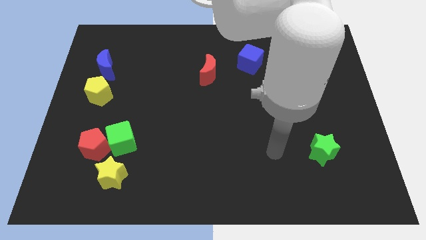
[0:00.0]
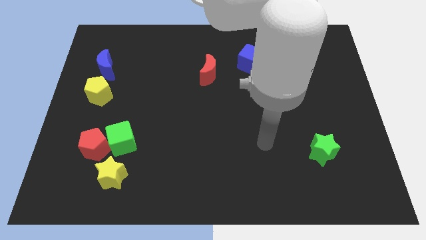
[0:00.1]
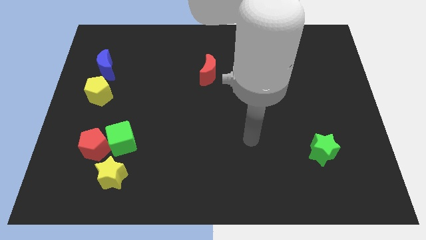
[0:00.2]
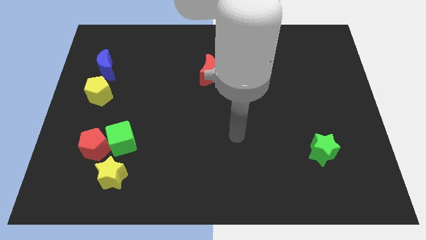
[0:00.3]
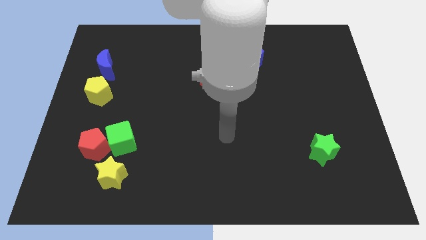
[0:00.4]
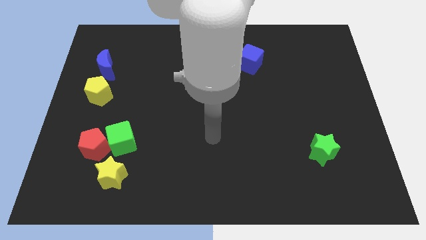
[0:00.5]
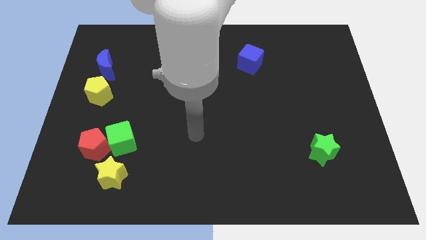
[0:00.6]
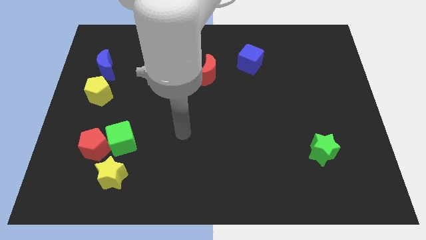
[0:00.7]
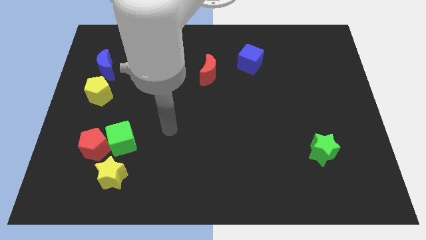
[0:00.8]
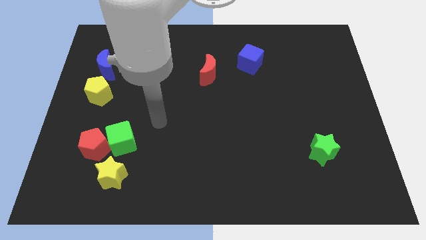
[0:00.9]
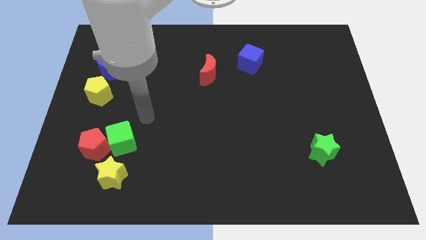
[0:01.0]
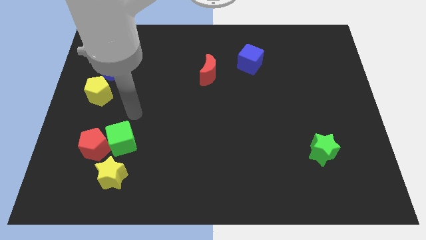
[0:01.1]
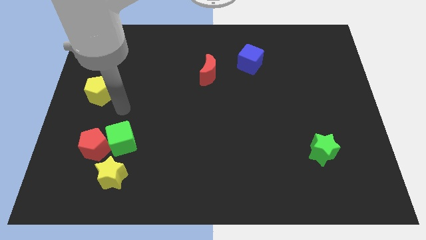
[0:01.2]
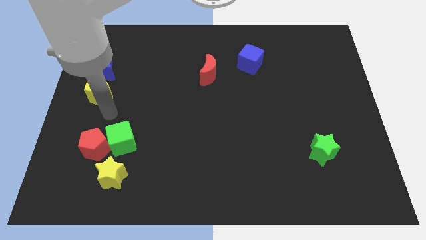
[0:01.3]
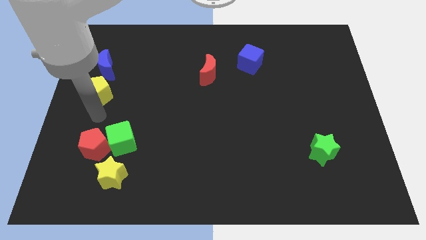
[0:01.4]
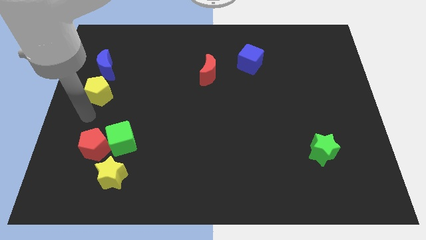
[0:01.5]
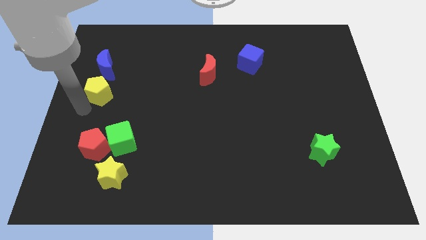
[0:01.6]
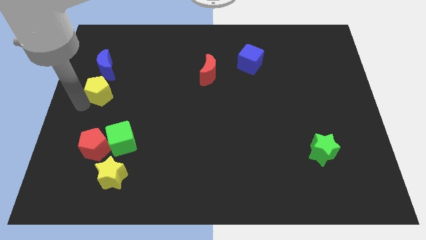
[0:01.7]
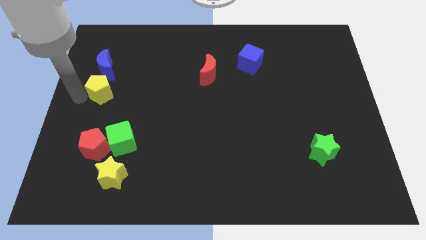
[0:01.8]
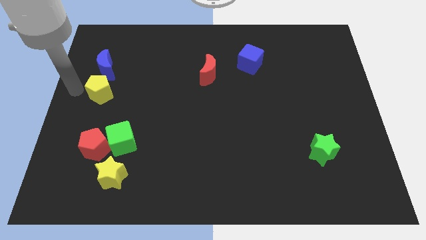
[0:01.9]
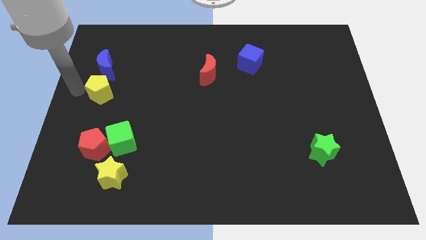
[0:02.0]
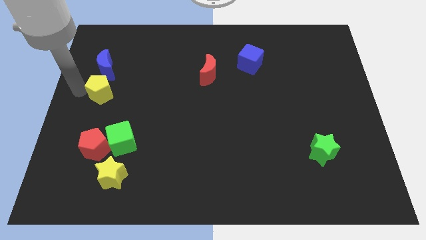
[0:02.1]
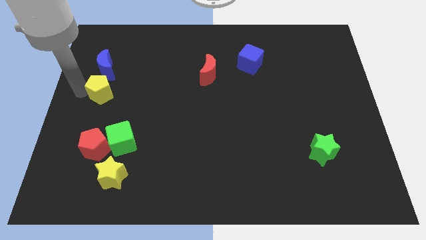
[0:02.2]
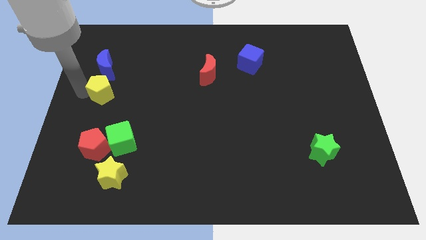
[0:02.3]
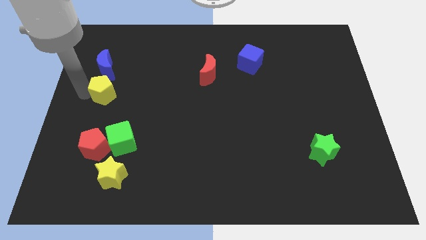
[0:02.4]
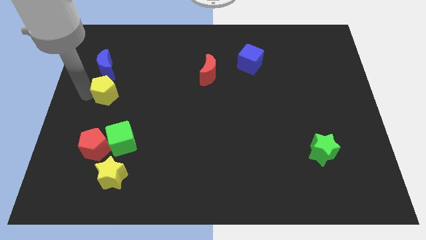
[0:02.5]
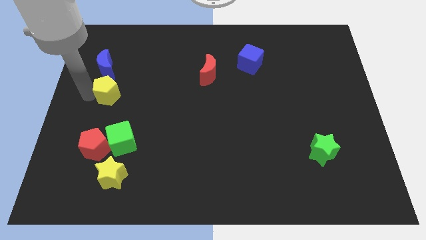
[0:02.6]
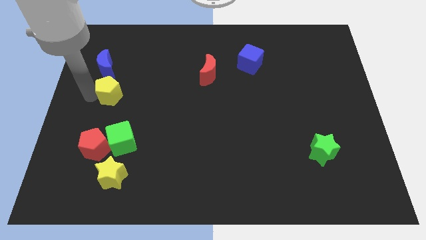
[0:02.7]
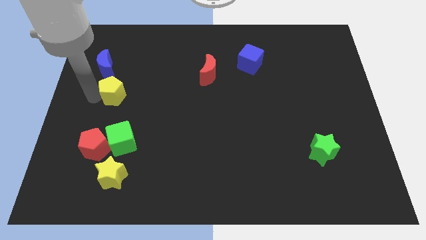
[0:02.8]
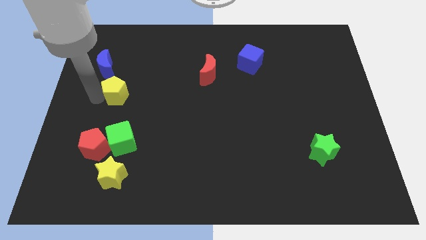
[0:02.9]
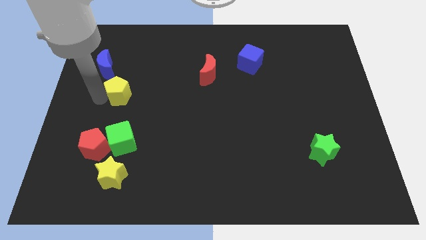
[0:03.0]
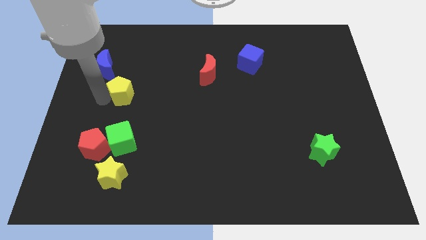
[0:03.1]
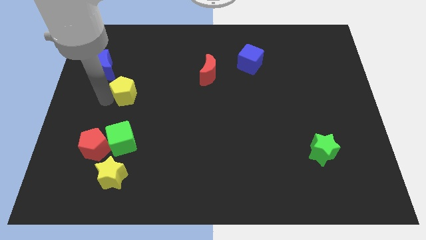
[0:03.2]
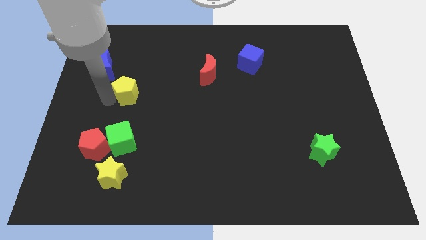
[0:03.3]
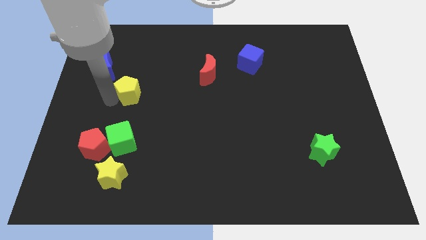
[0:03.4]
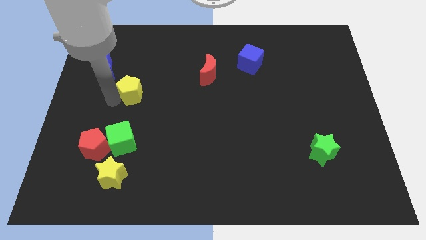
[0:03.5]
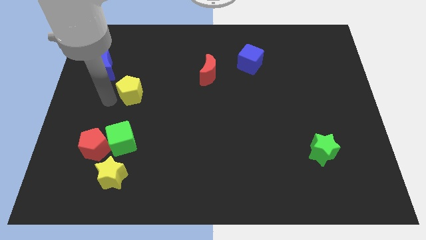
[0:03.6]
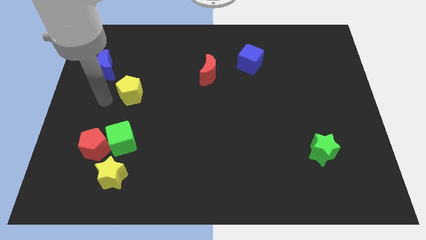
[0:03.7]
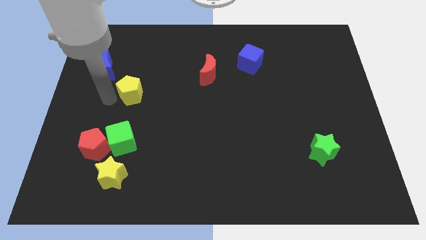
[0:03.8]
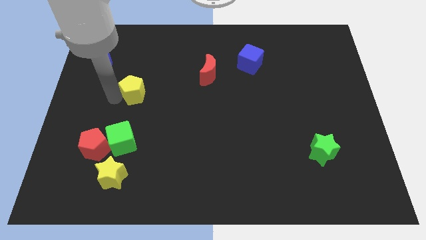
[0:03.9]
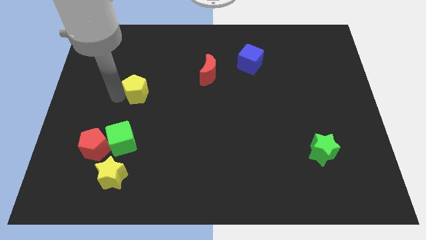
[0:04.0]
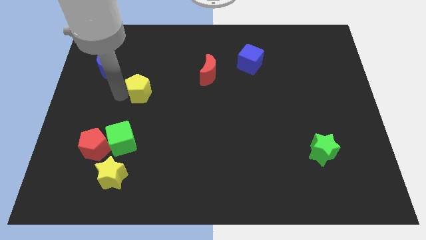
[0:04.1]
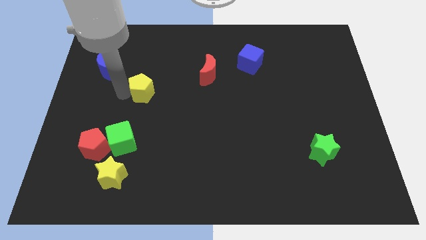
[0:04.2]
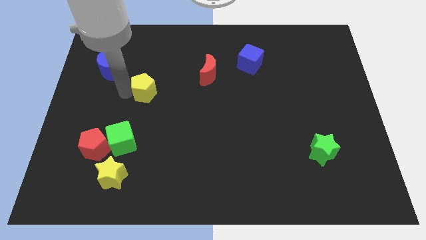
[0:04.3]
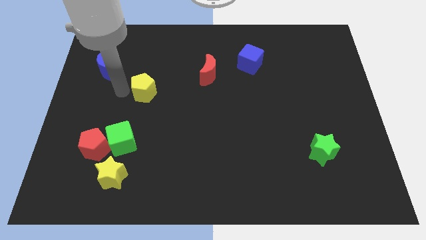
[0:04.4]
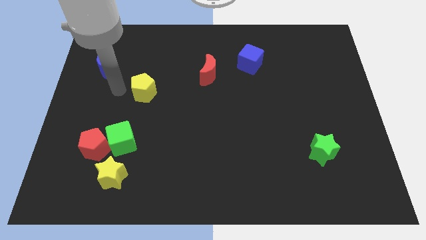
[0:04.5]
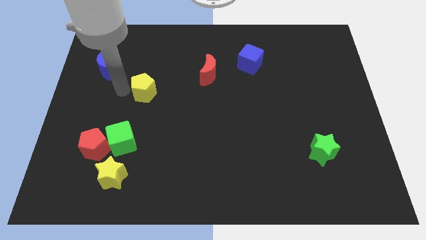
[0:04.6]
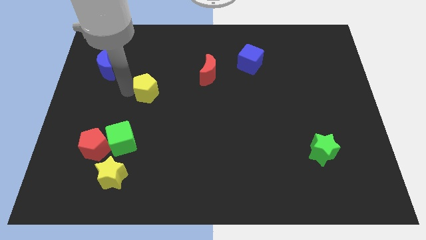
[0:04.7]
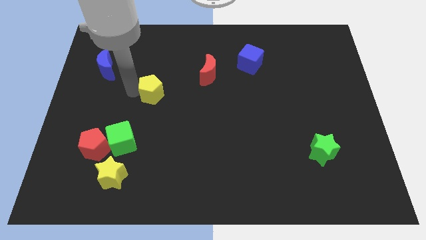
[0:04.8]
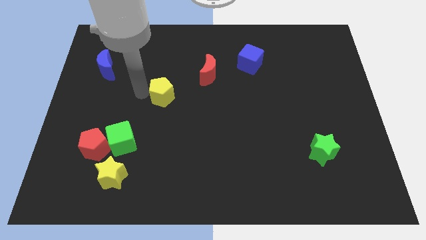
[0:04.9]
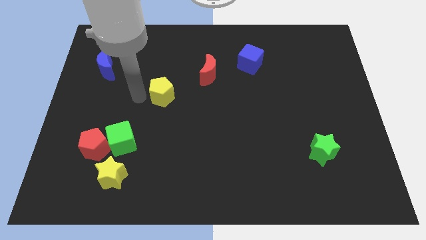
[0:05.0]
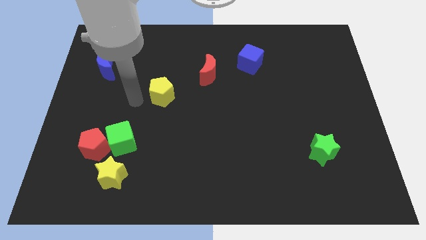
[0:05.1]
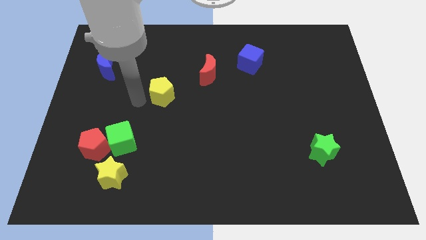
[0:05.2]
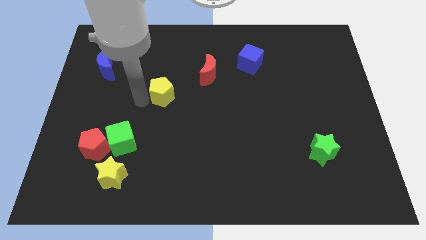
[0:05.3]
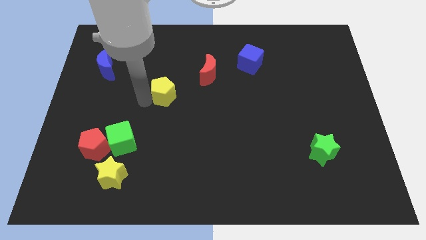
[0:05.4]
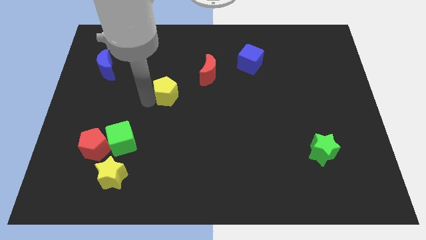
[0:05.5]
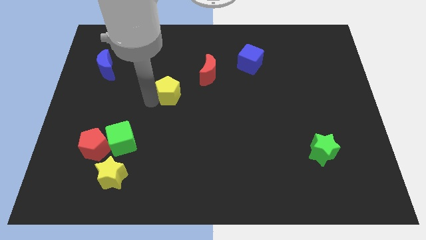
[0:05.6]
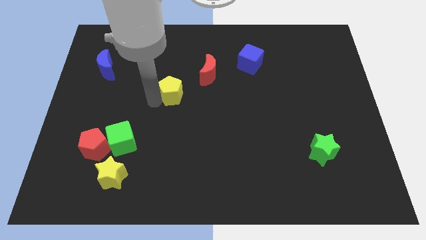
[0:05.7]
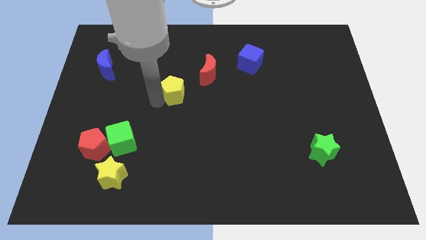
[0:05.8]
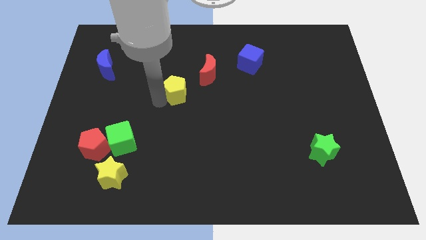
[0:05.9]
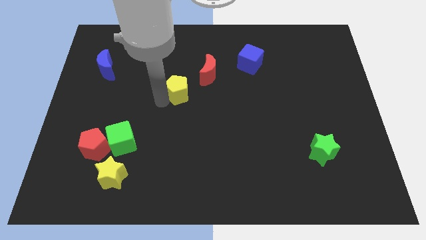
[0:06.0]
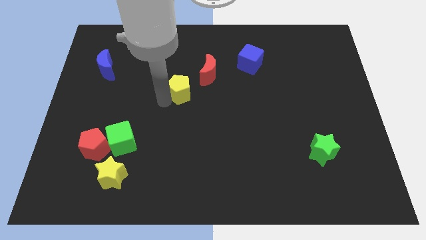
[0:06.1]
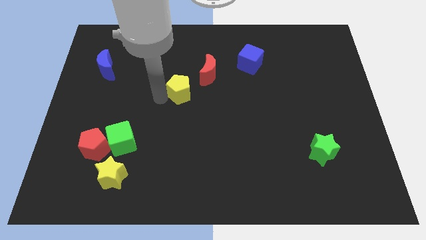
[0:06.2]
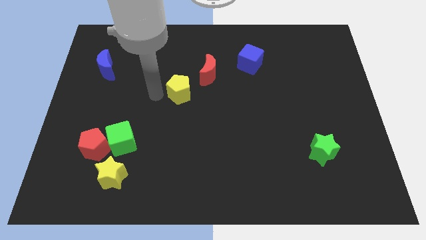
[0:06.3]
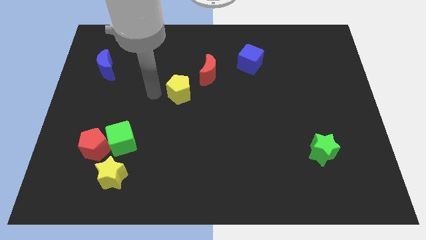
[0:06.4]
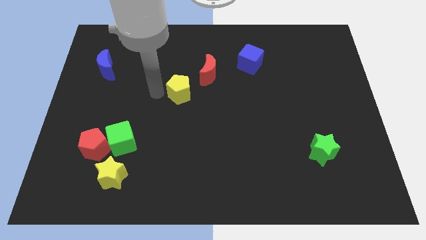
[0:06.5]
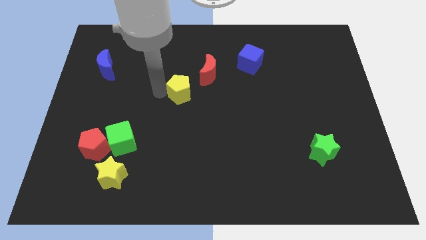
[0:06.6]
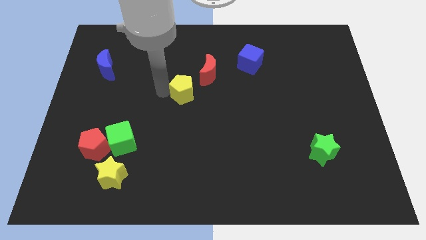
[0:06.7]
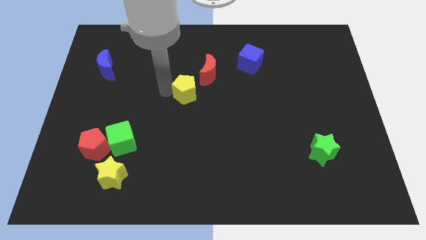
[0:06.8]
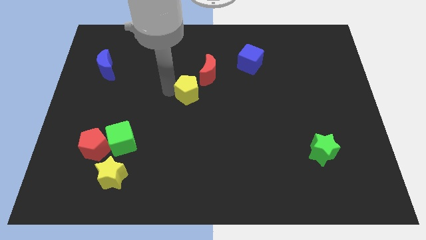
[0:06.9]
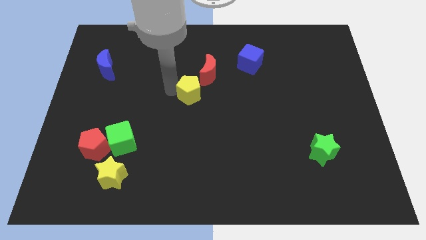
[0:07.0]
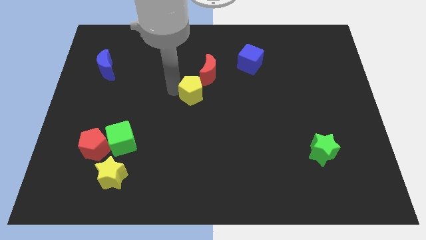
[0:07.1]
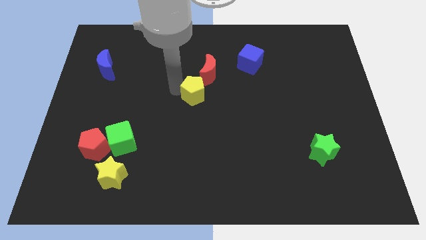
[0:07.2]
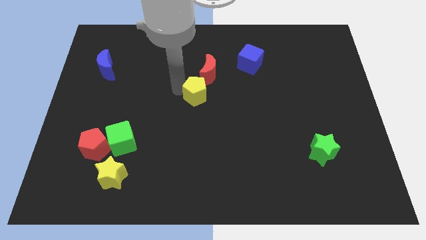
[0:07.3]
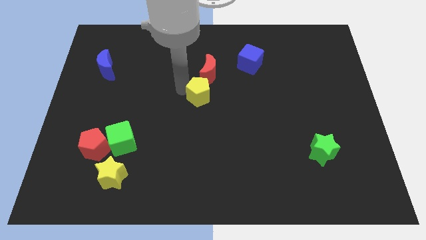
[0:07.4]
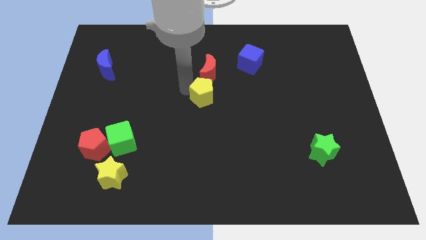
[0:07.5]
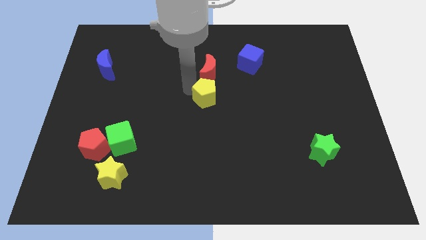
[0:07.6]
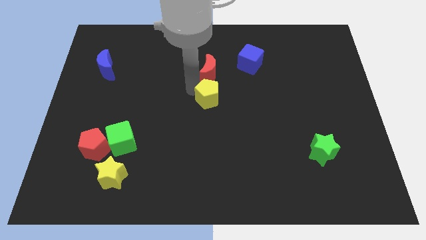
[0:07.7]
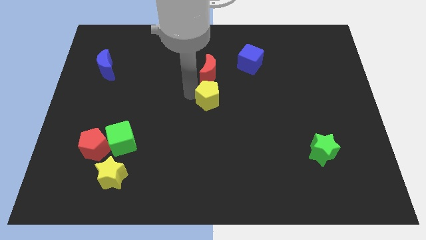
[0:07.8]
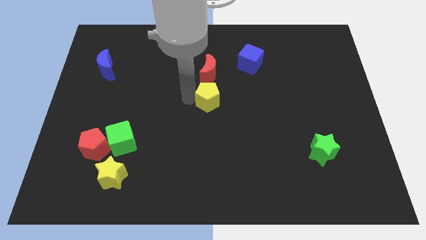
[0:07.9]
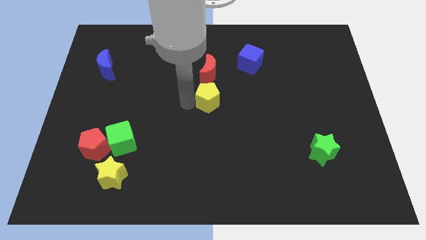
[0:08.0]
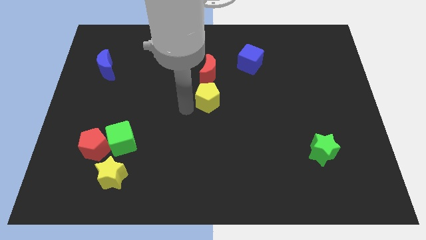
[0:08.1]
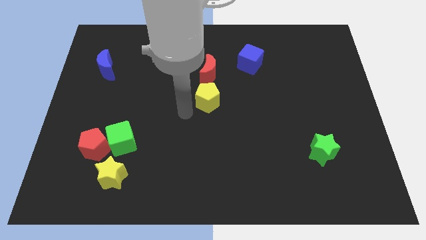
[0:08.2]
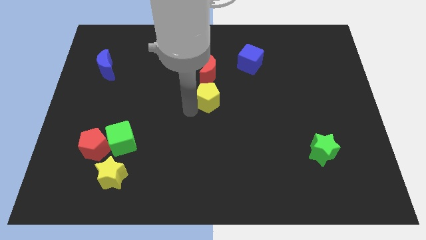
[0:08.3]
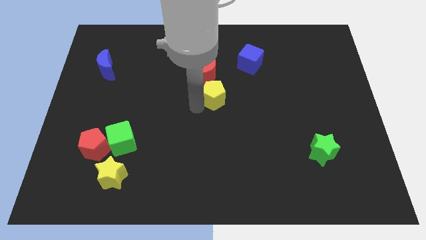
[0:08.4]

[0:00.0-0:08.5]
move the yellow pentagon diagonally down and to the right of the red moon
